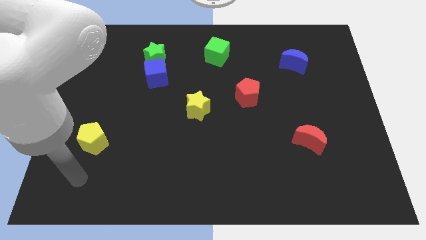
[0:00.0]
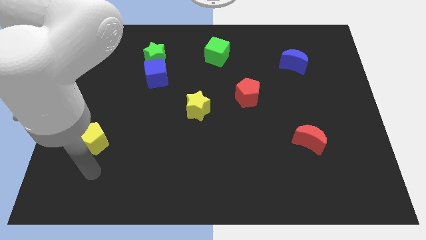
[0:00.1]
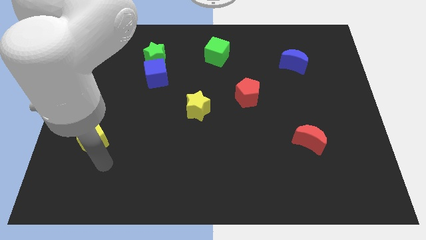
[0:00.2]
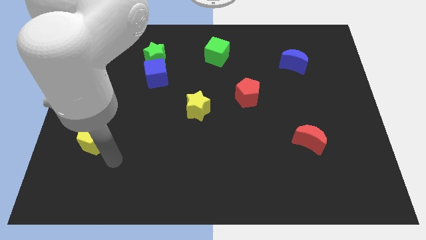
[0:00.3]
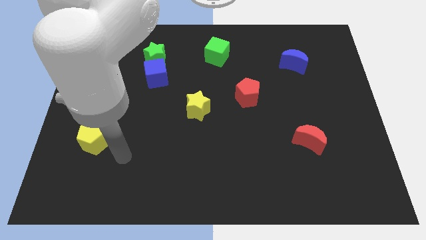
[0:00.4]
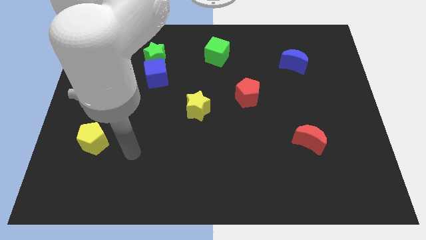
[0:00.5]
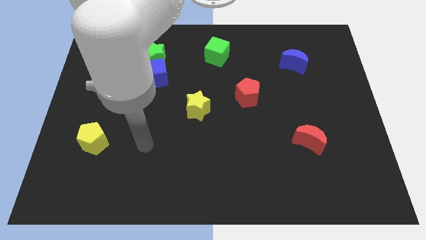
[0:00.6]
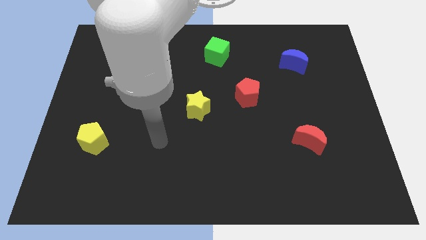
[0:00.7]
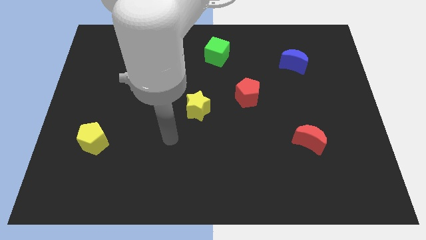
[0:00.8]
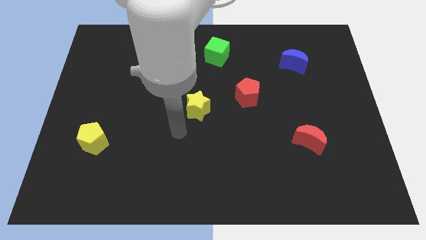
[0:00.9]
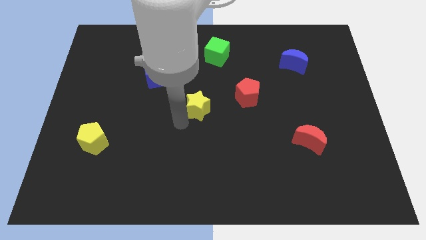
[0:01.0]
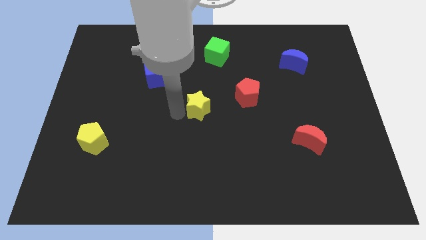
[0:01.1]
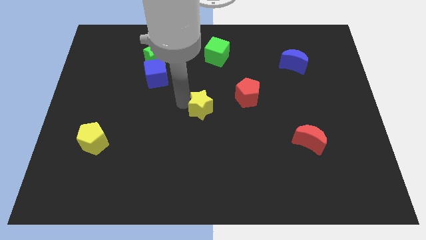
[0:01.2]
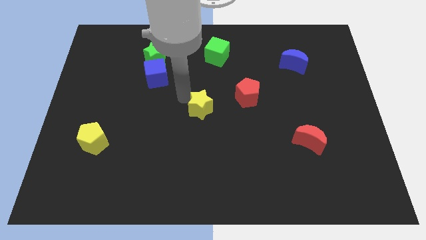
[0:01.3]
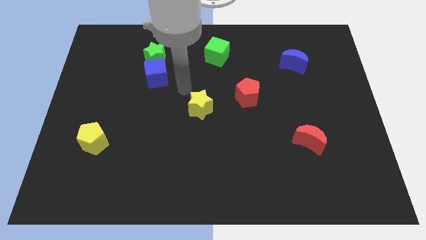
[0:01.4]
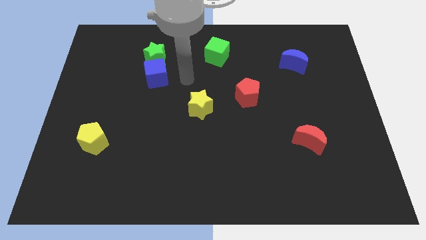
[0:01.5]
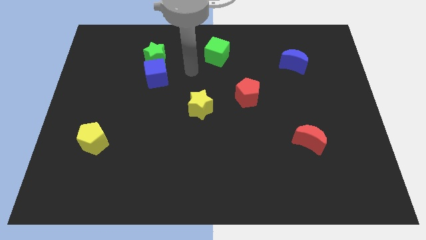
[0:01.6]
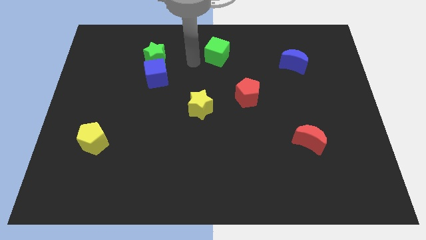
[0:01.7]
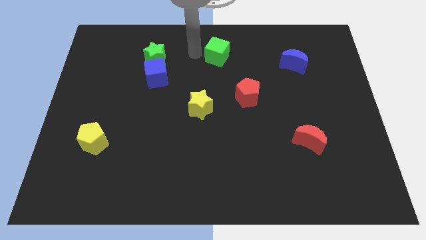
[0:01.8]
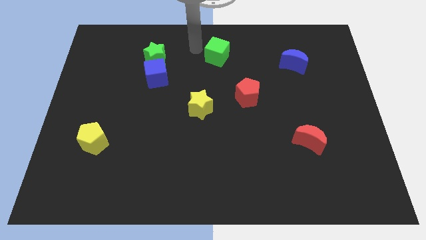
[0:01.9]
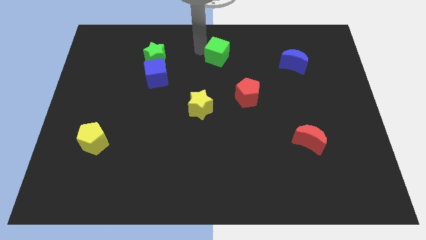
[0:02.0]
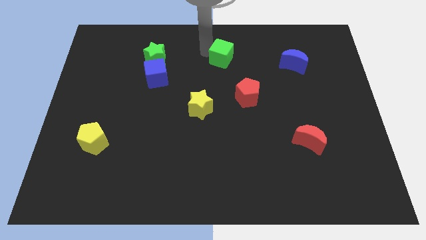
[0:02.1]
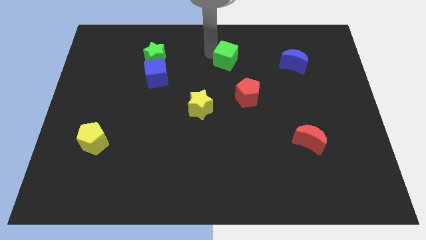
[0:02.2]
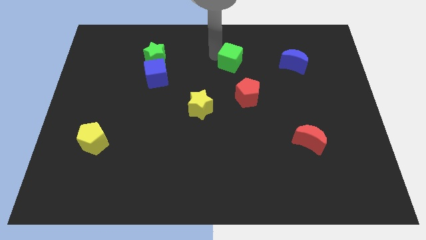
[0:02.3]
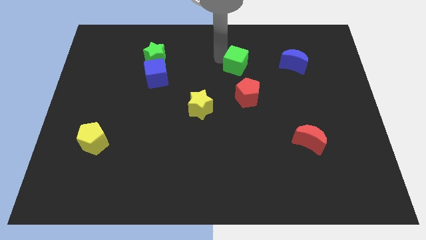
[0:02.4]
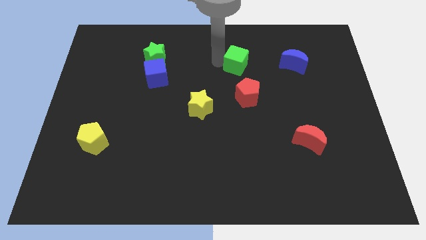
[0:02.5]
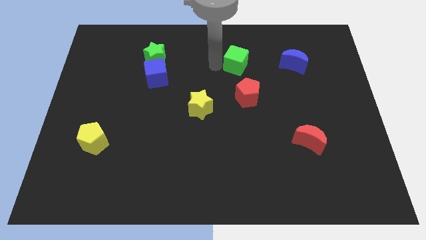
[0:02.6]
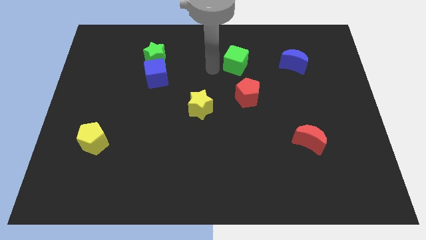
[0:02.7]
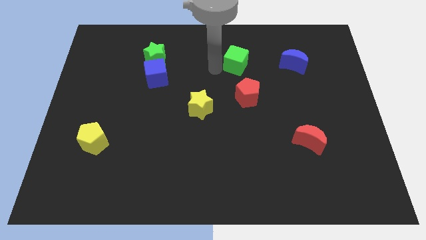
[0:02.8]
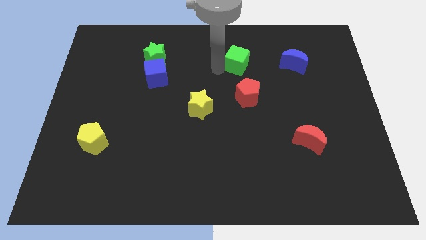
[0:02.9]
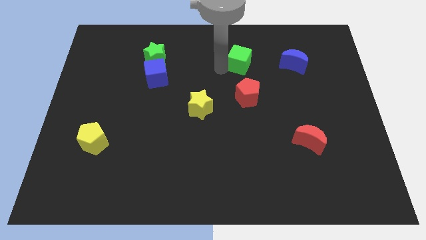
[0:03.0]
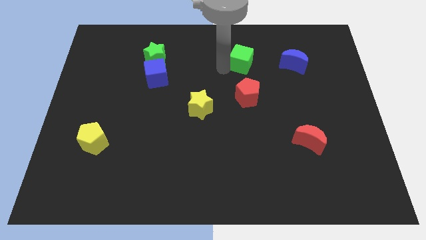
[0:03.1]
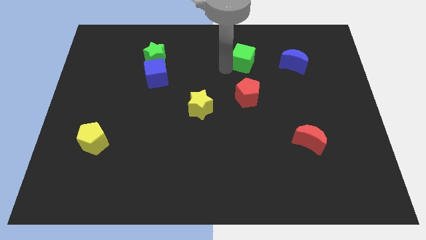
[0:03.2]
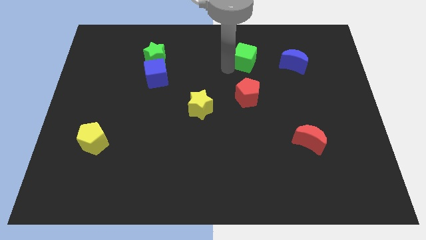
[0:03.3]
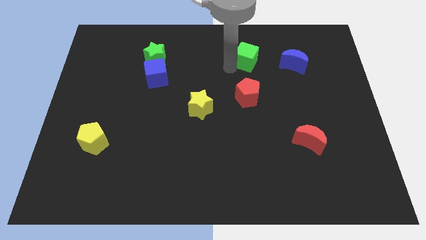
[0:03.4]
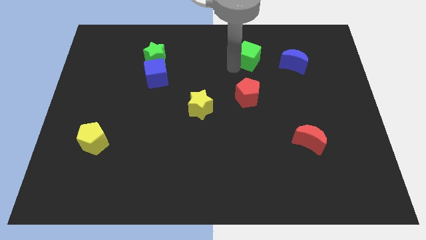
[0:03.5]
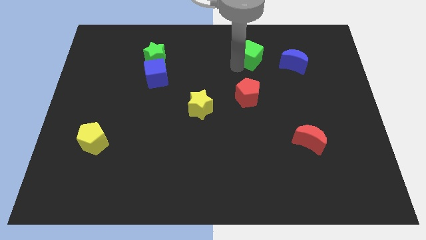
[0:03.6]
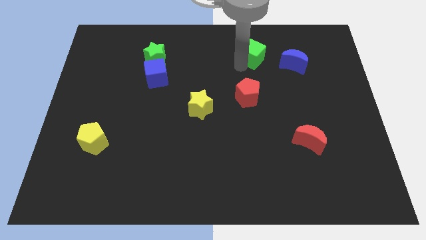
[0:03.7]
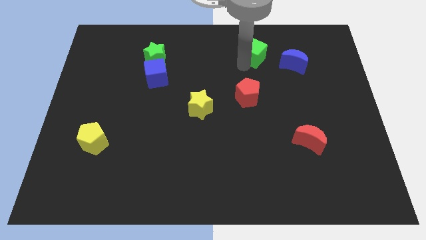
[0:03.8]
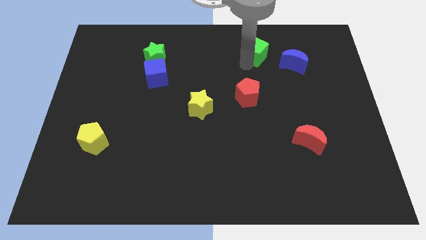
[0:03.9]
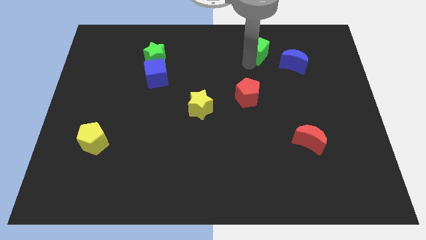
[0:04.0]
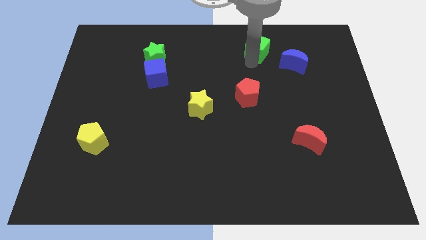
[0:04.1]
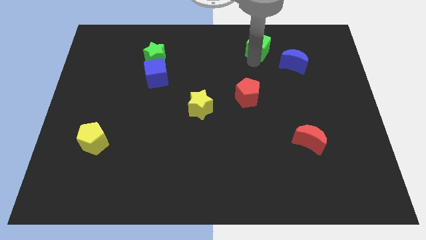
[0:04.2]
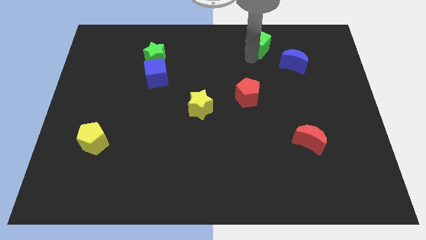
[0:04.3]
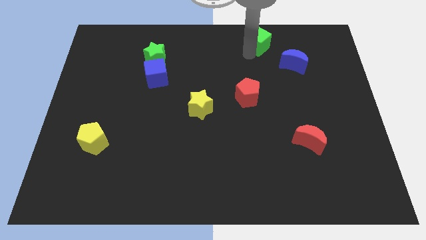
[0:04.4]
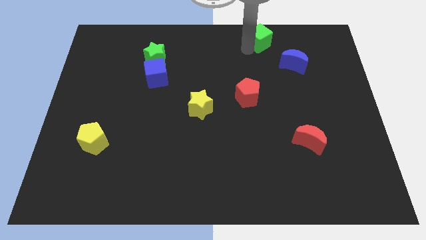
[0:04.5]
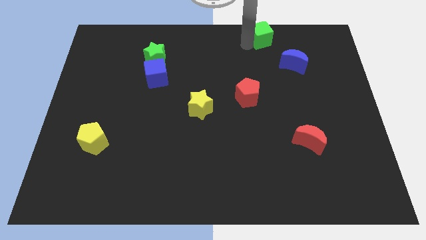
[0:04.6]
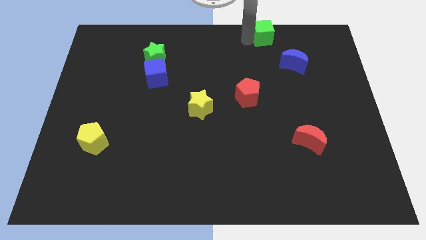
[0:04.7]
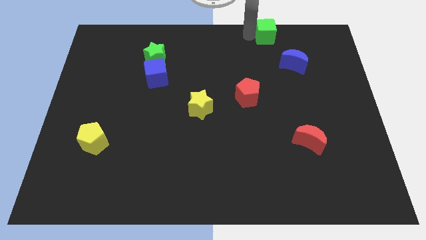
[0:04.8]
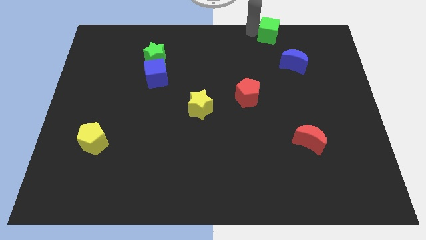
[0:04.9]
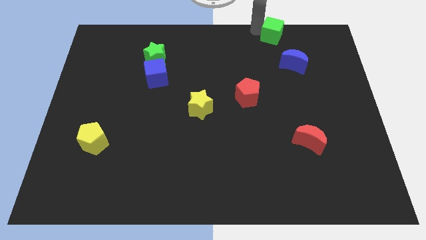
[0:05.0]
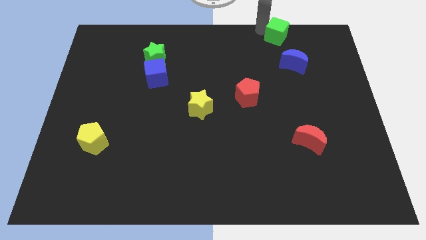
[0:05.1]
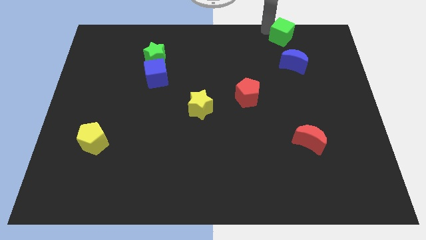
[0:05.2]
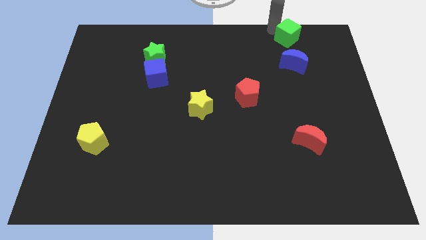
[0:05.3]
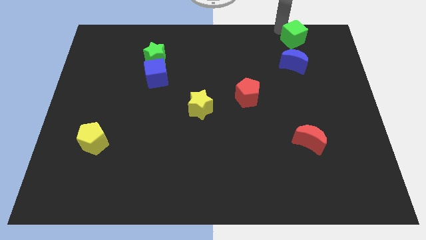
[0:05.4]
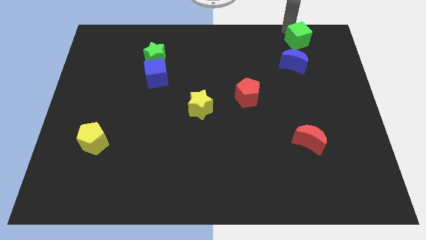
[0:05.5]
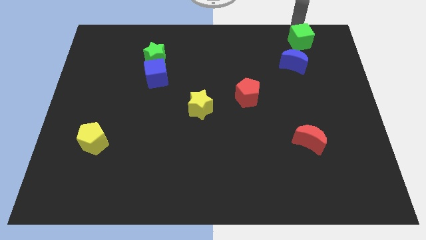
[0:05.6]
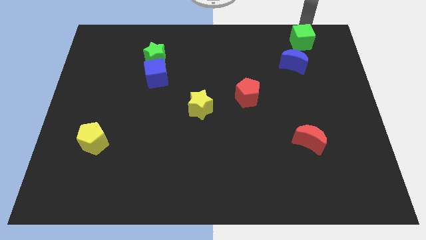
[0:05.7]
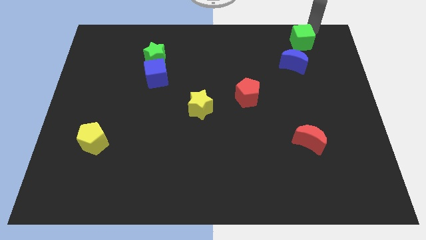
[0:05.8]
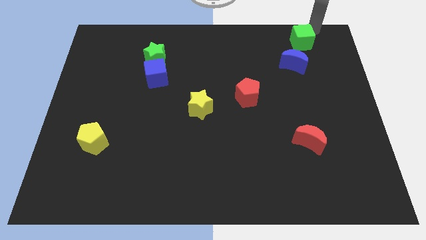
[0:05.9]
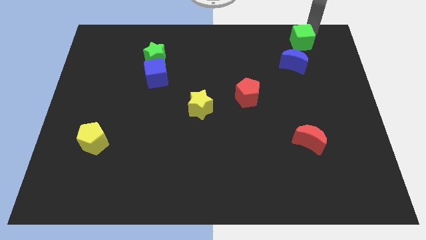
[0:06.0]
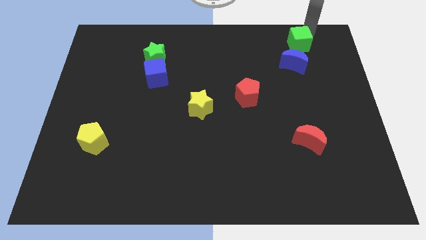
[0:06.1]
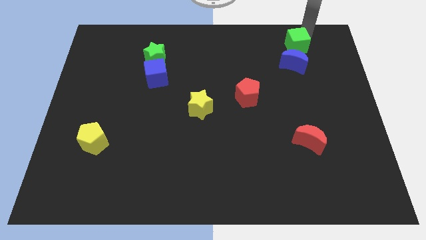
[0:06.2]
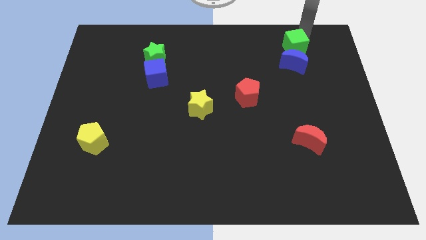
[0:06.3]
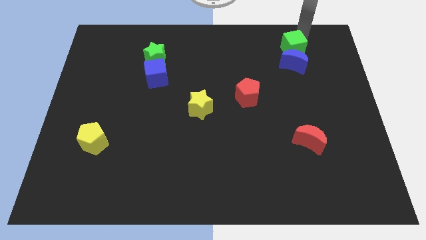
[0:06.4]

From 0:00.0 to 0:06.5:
move the green cube to the blue moon

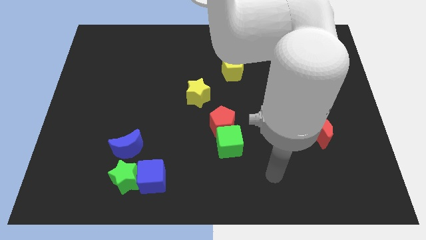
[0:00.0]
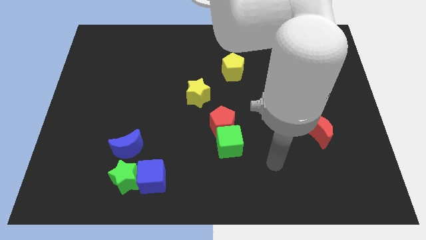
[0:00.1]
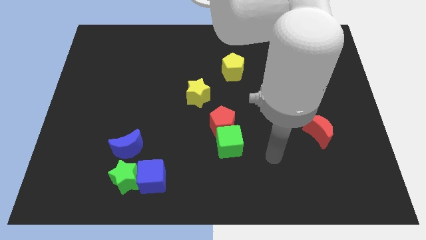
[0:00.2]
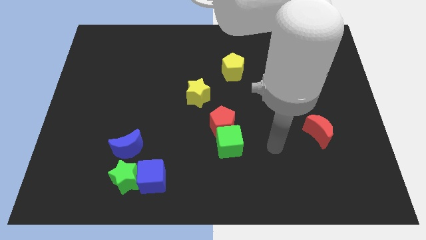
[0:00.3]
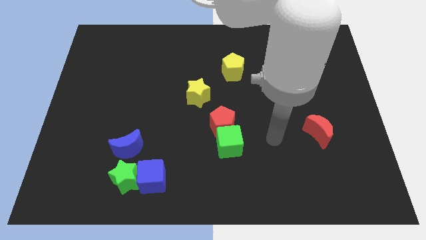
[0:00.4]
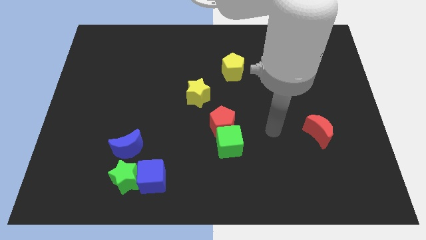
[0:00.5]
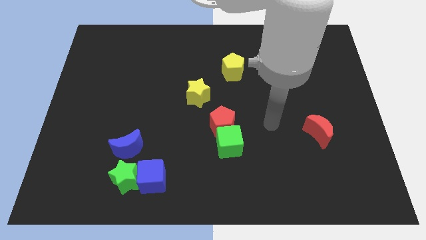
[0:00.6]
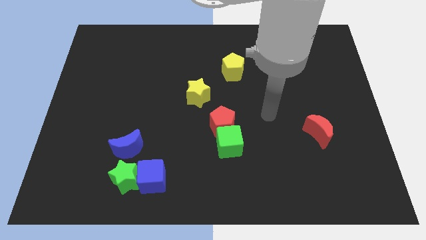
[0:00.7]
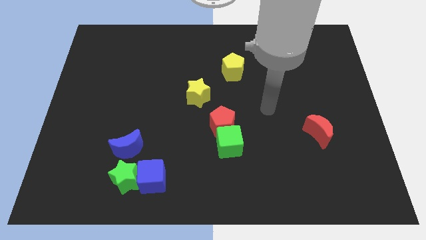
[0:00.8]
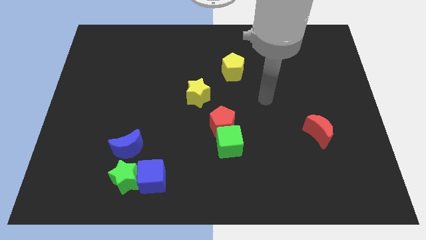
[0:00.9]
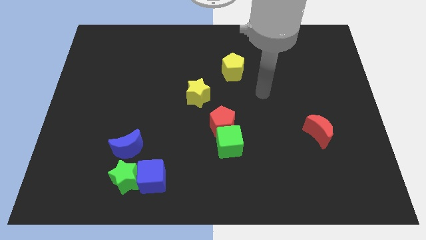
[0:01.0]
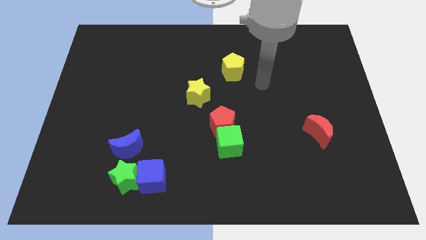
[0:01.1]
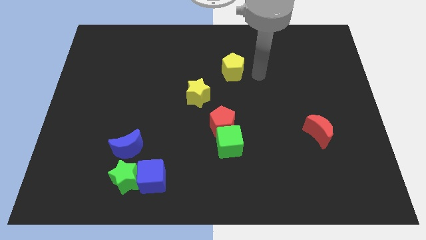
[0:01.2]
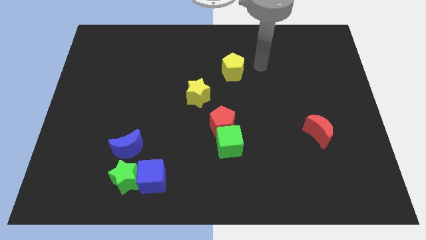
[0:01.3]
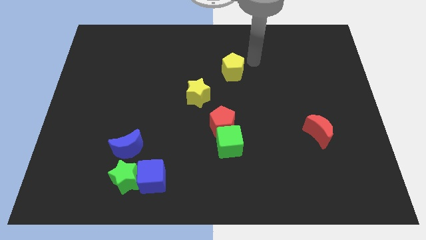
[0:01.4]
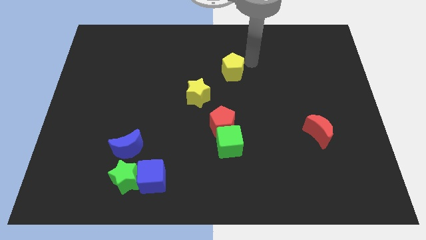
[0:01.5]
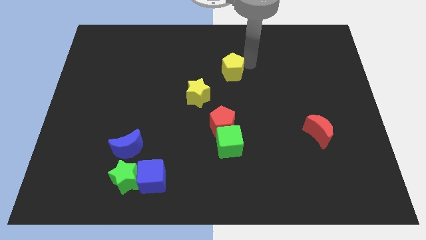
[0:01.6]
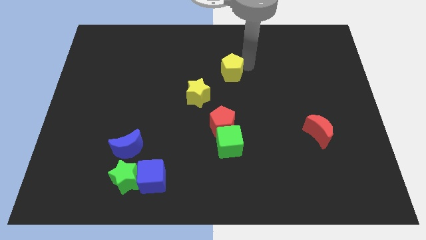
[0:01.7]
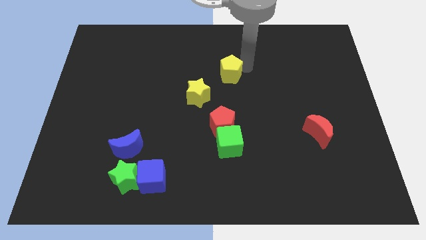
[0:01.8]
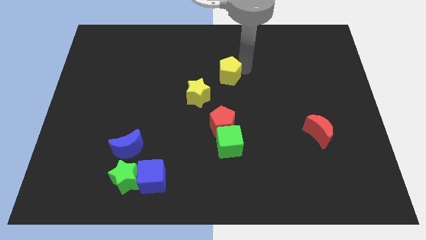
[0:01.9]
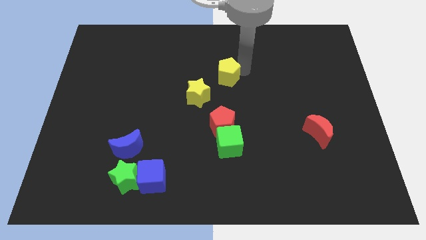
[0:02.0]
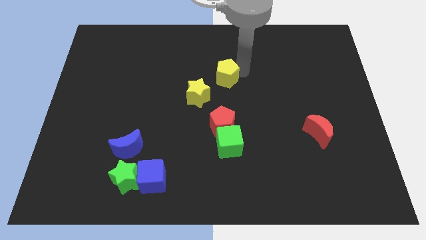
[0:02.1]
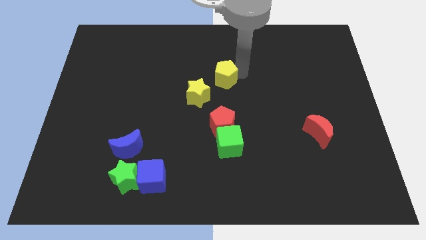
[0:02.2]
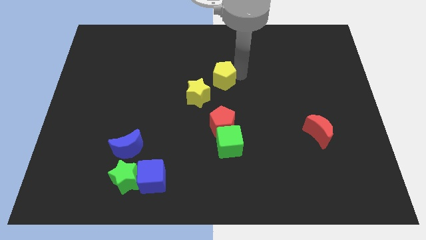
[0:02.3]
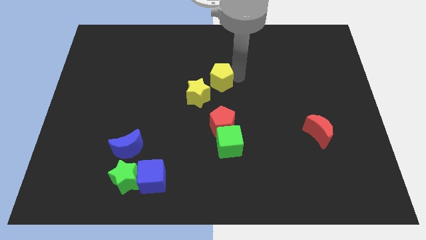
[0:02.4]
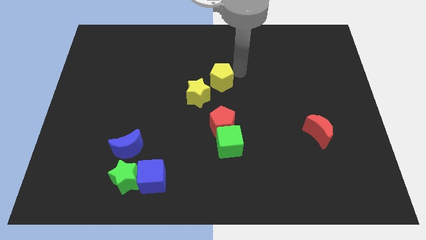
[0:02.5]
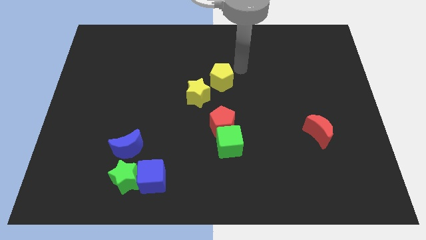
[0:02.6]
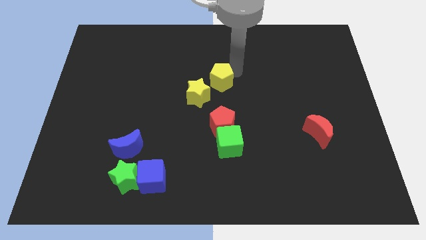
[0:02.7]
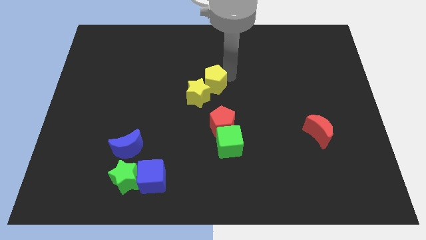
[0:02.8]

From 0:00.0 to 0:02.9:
push the yellow pentagon towards the yellow star
